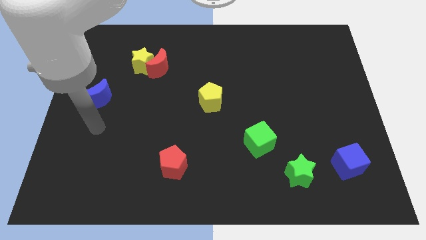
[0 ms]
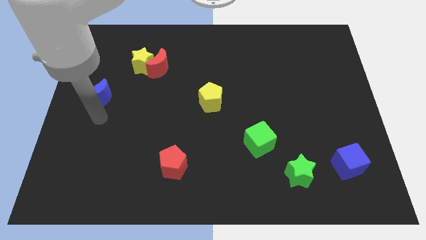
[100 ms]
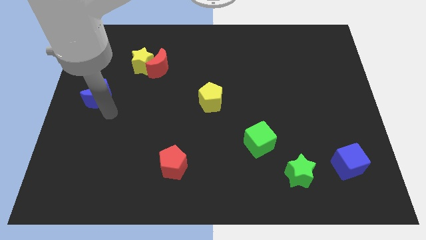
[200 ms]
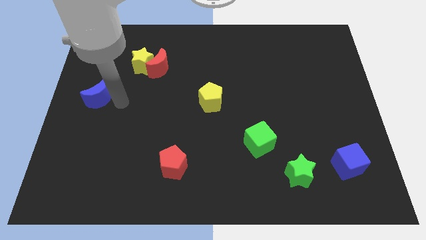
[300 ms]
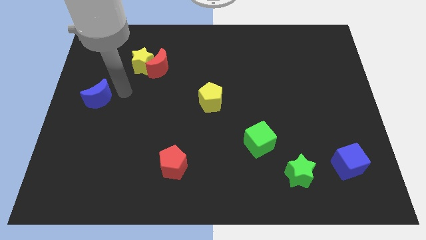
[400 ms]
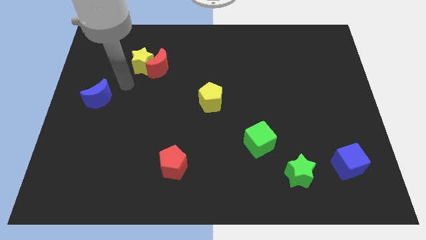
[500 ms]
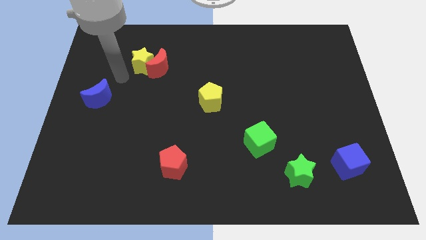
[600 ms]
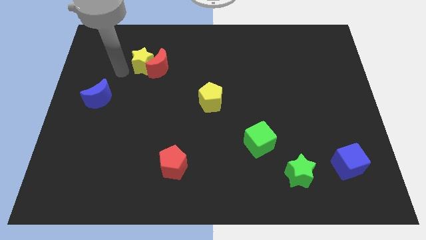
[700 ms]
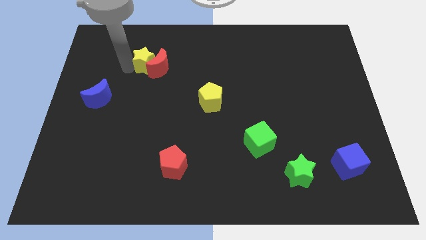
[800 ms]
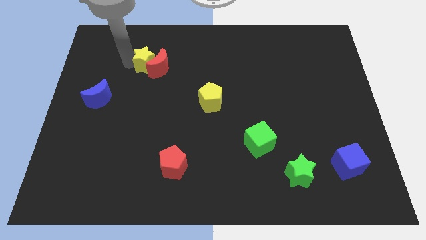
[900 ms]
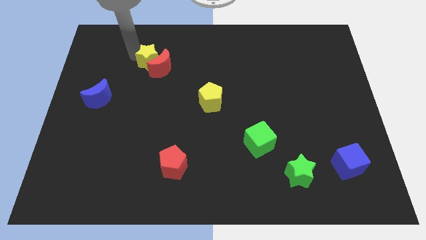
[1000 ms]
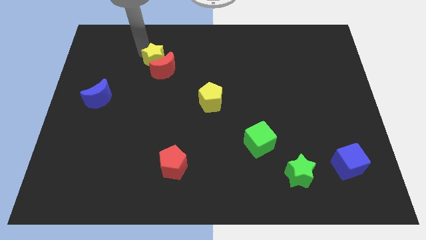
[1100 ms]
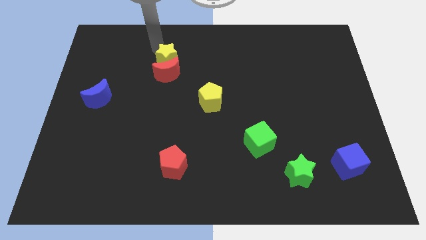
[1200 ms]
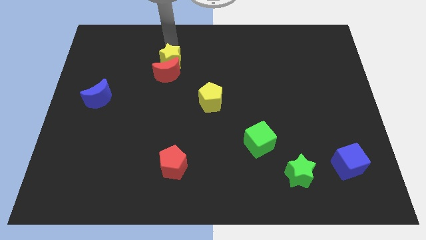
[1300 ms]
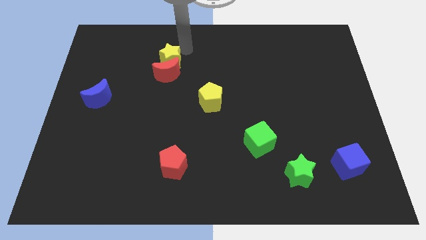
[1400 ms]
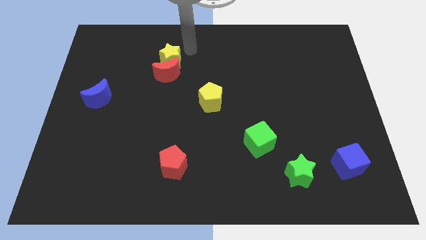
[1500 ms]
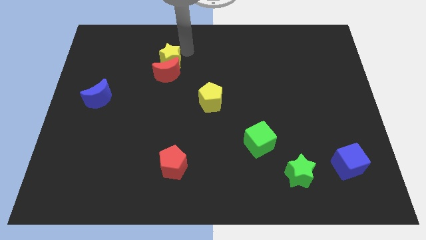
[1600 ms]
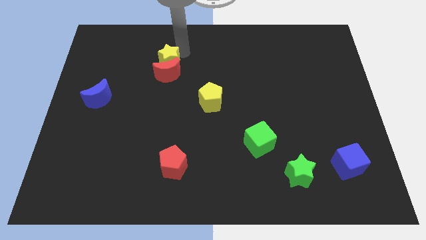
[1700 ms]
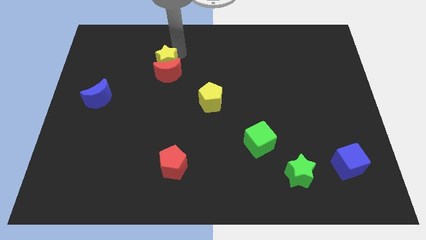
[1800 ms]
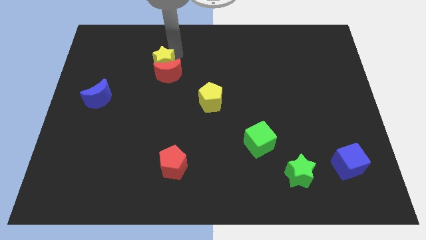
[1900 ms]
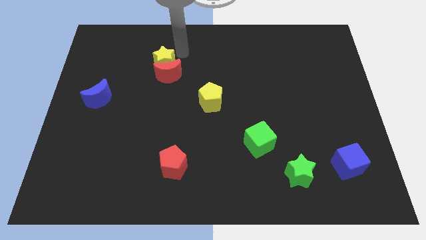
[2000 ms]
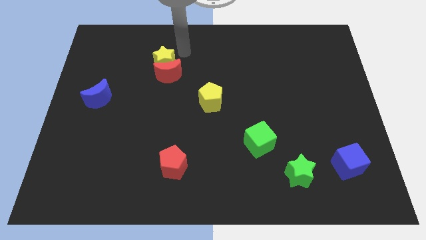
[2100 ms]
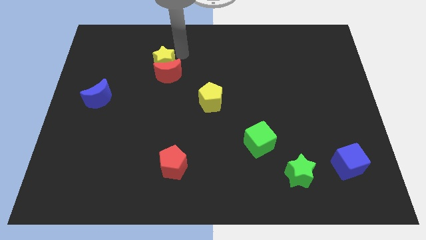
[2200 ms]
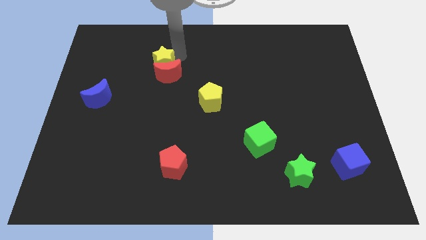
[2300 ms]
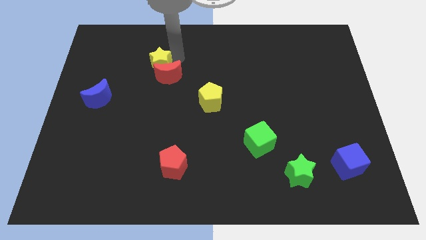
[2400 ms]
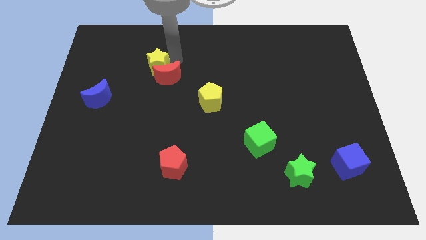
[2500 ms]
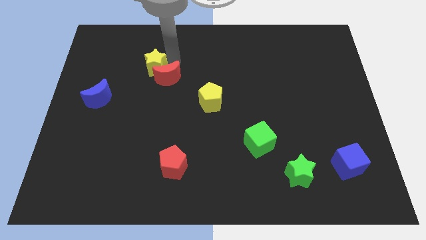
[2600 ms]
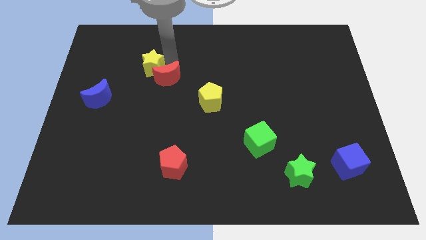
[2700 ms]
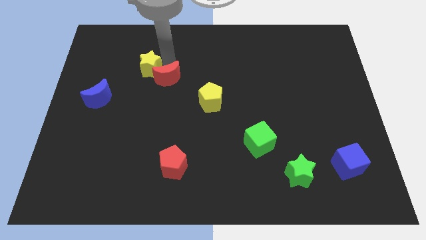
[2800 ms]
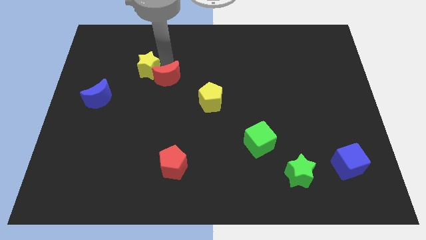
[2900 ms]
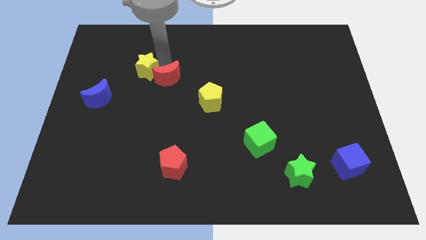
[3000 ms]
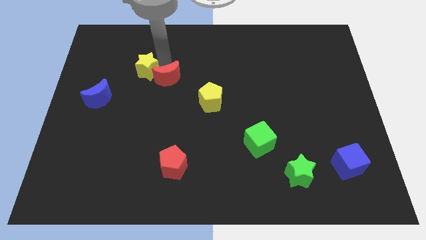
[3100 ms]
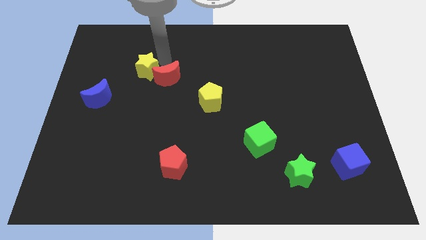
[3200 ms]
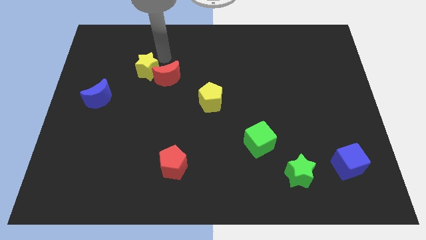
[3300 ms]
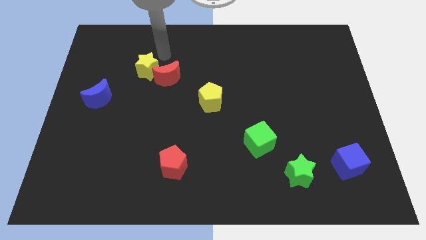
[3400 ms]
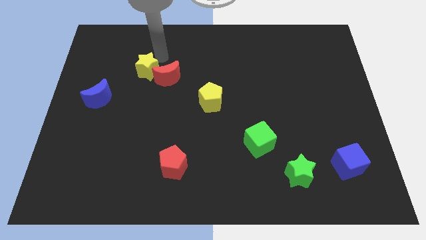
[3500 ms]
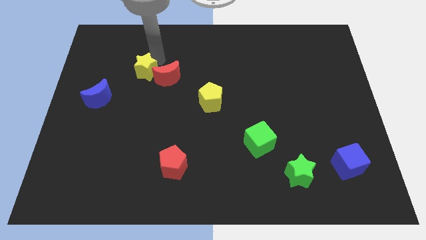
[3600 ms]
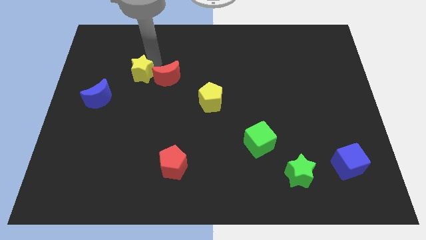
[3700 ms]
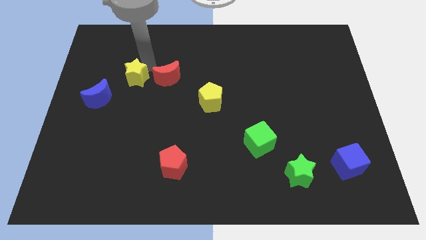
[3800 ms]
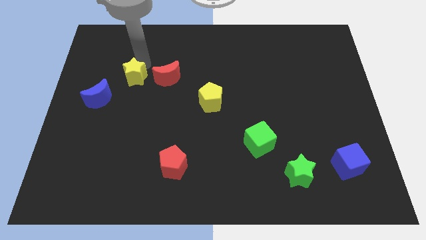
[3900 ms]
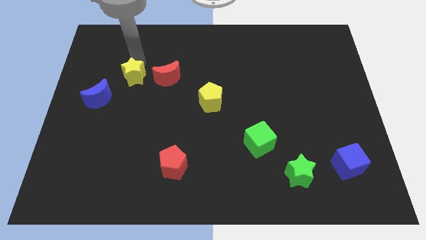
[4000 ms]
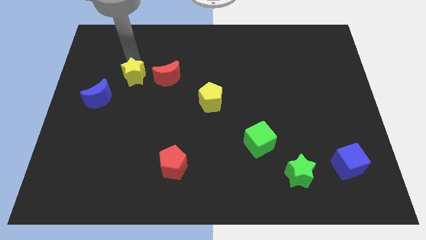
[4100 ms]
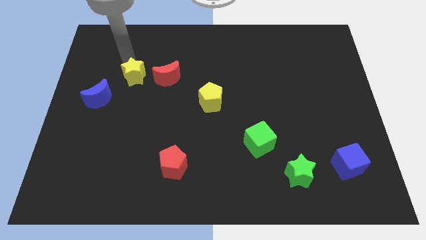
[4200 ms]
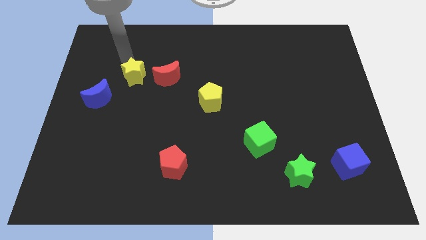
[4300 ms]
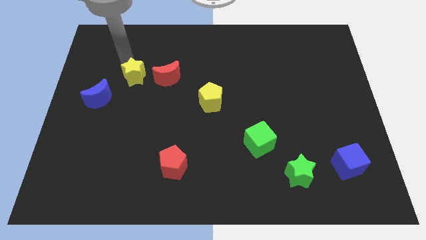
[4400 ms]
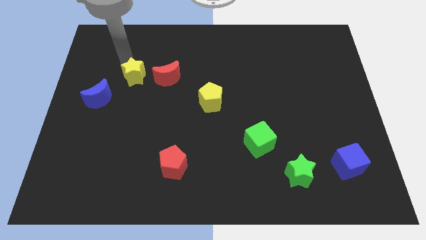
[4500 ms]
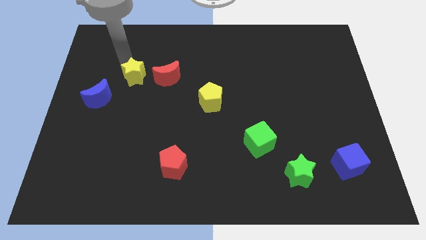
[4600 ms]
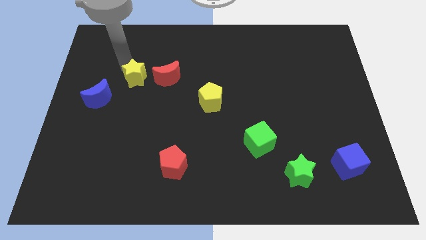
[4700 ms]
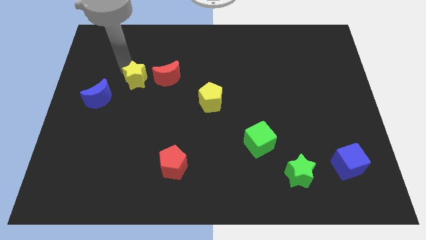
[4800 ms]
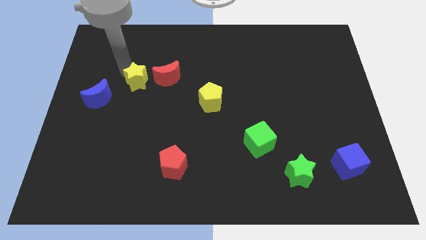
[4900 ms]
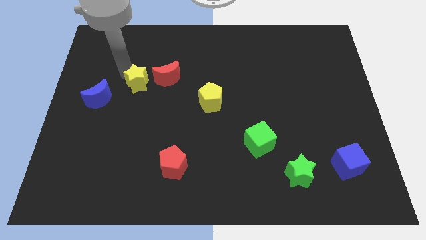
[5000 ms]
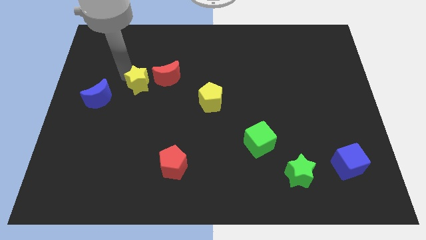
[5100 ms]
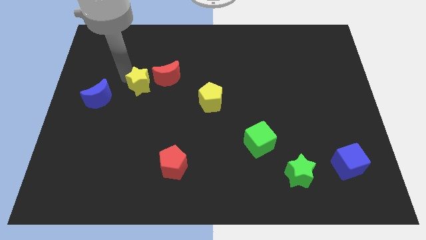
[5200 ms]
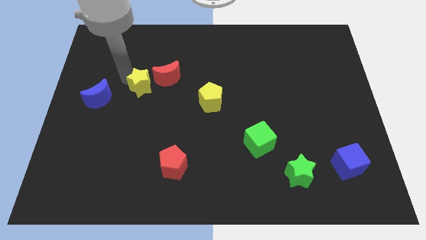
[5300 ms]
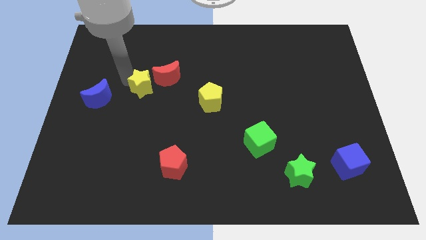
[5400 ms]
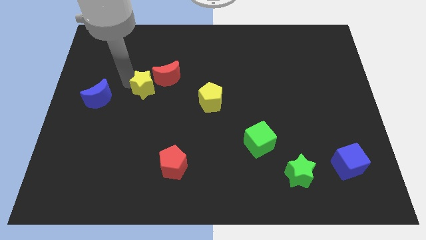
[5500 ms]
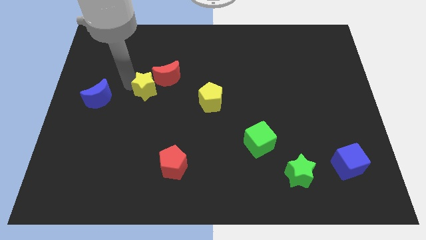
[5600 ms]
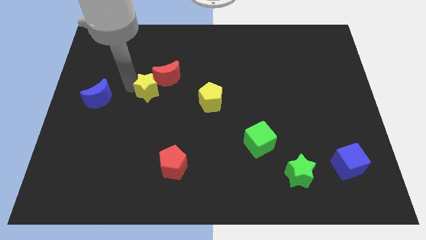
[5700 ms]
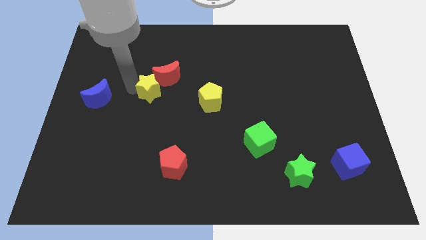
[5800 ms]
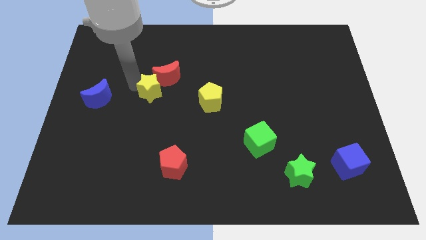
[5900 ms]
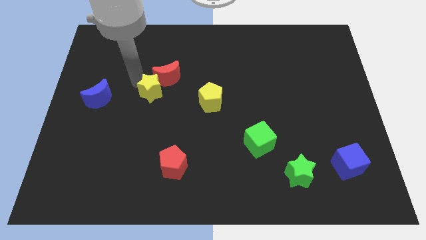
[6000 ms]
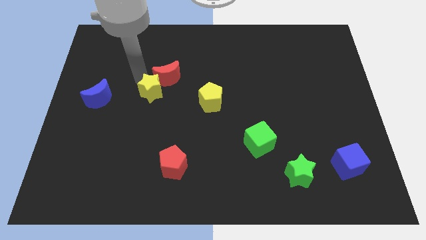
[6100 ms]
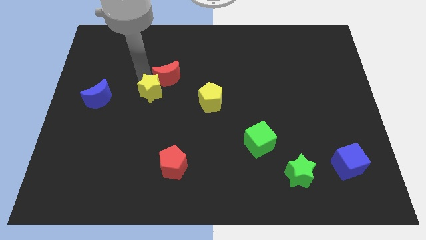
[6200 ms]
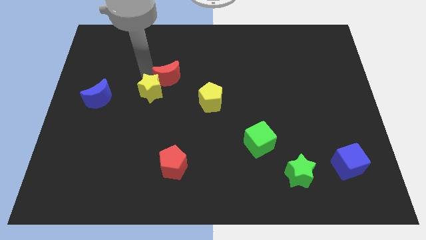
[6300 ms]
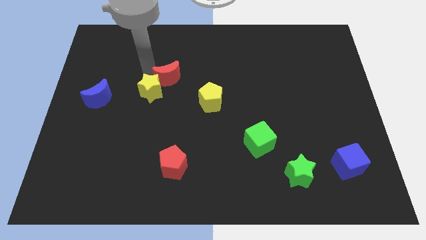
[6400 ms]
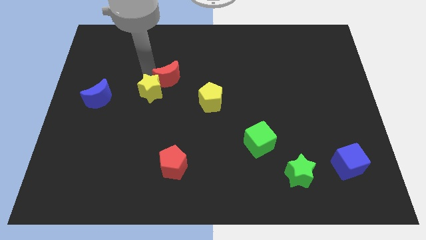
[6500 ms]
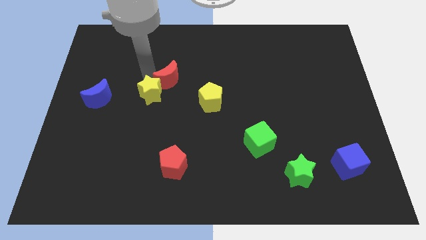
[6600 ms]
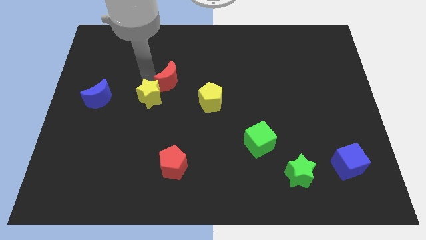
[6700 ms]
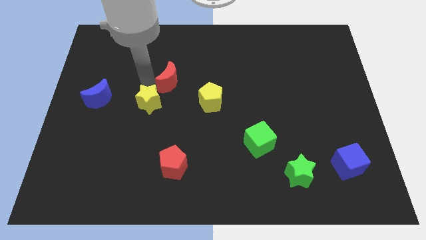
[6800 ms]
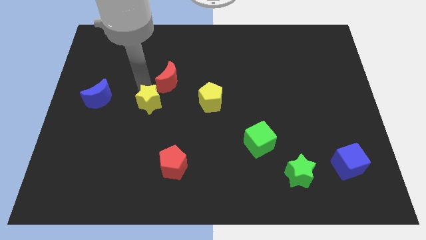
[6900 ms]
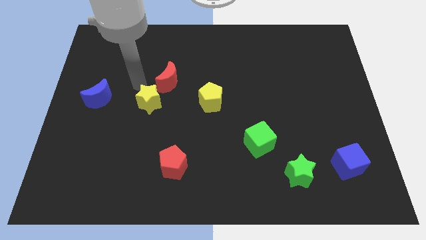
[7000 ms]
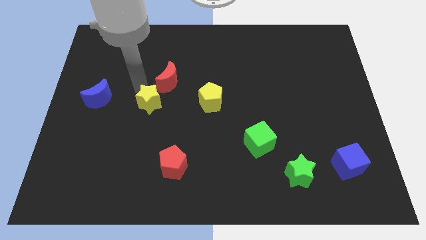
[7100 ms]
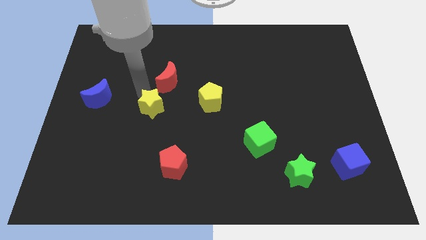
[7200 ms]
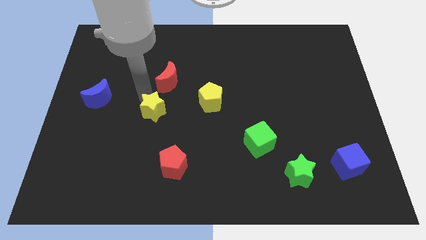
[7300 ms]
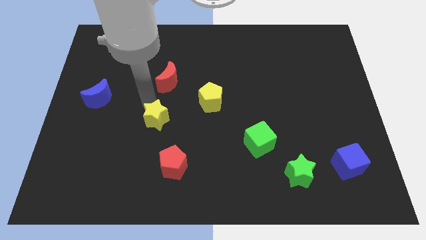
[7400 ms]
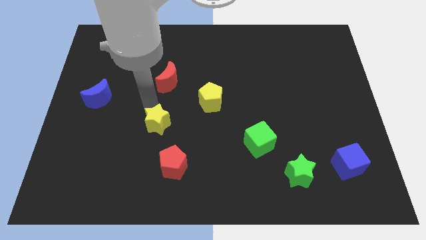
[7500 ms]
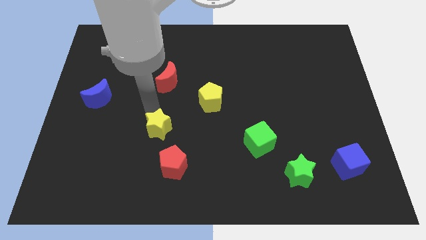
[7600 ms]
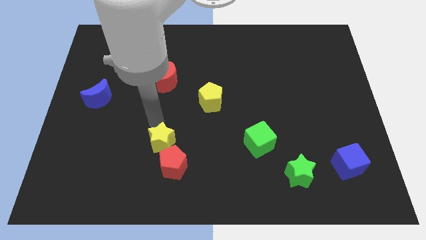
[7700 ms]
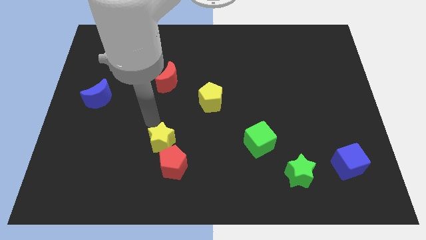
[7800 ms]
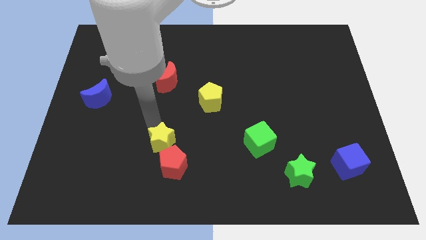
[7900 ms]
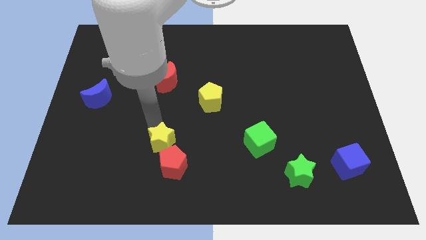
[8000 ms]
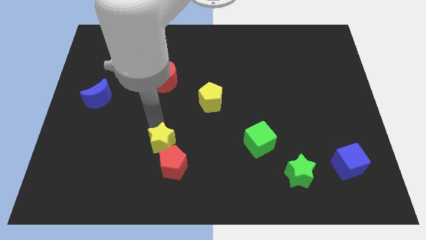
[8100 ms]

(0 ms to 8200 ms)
put the yellow star close to the red pentagon
